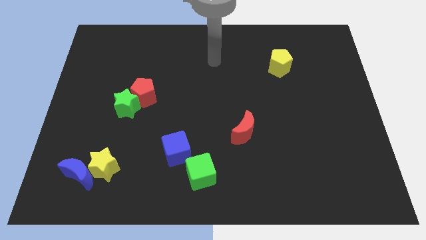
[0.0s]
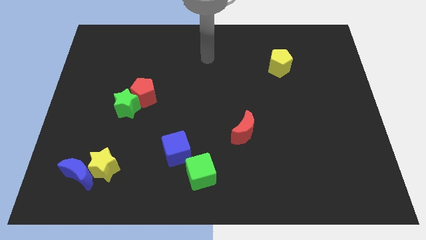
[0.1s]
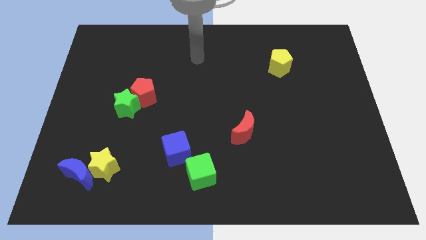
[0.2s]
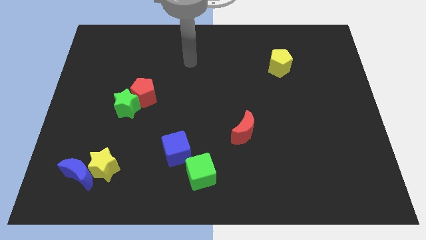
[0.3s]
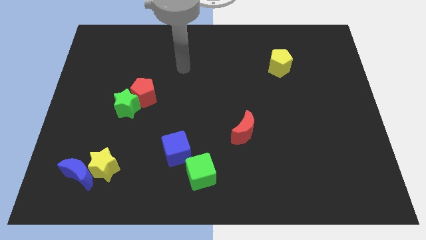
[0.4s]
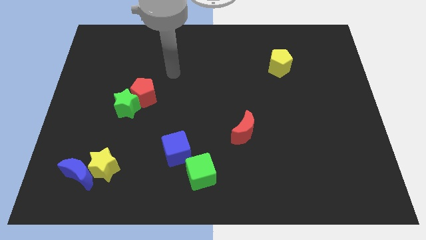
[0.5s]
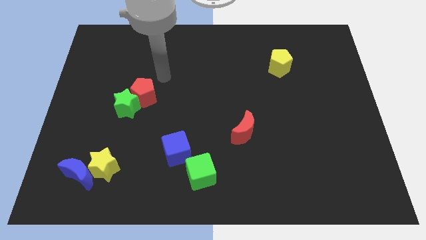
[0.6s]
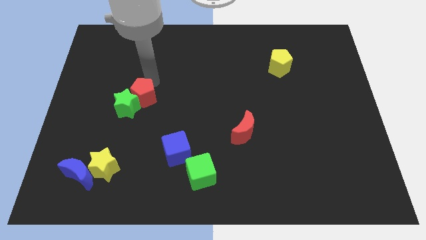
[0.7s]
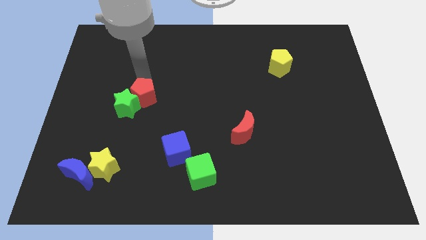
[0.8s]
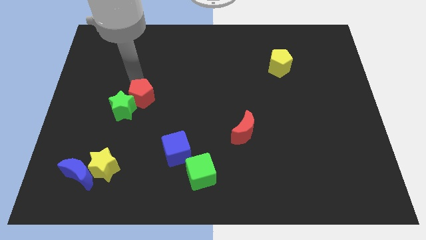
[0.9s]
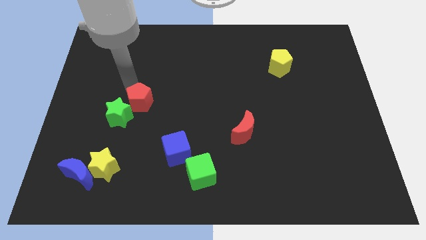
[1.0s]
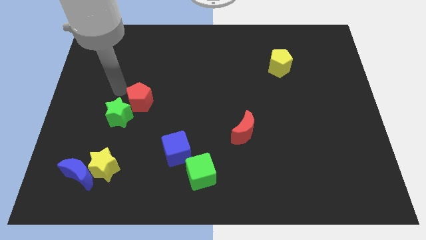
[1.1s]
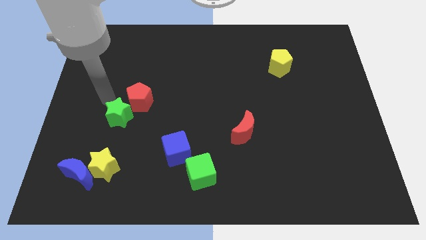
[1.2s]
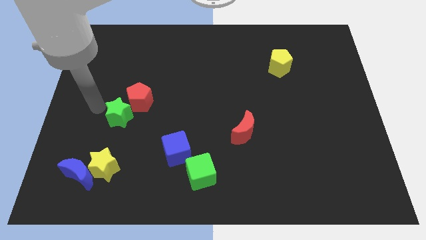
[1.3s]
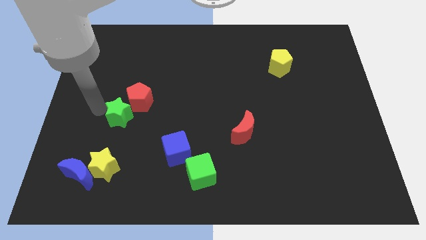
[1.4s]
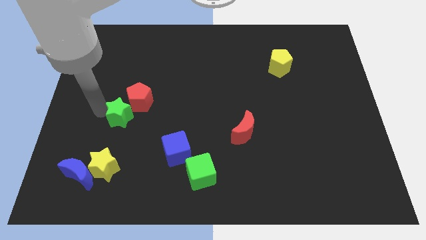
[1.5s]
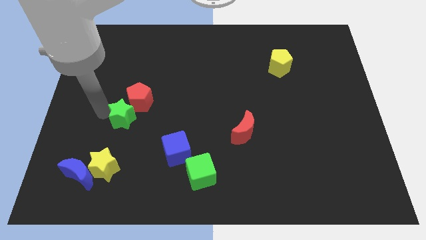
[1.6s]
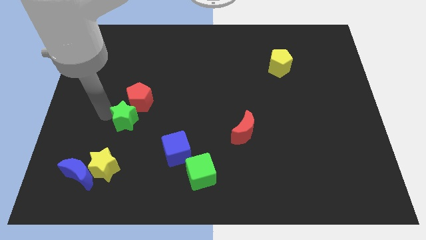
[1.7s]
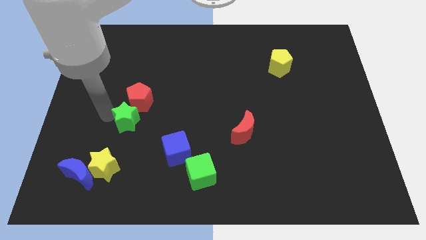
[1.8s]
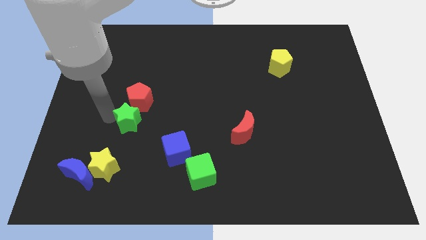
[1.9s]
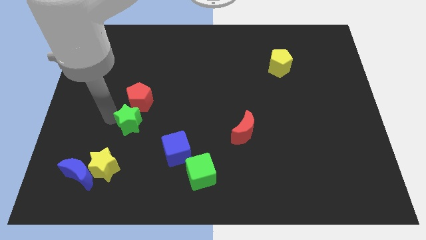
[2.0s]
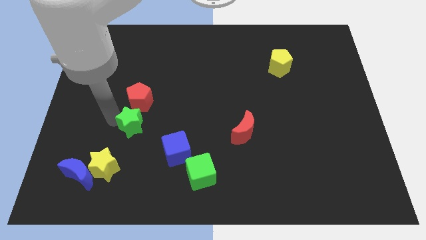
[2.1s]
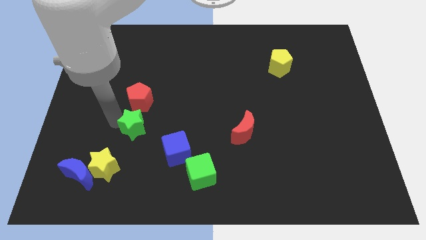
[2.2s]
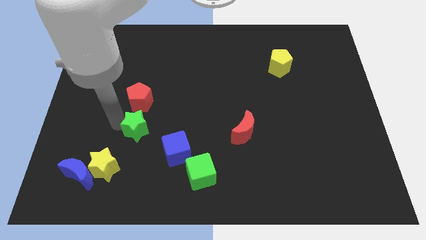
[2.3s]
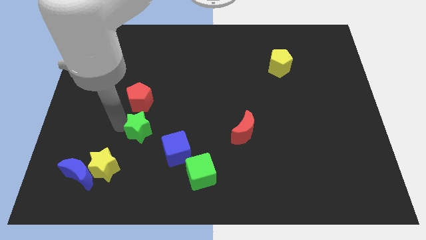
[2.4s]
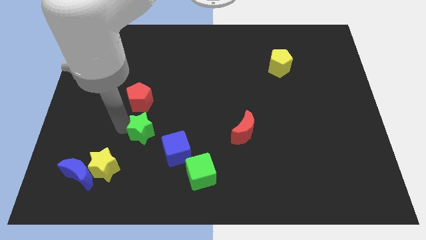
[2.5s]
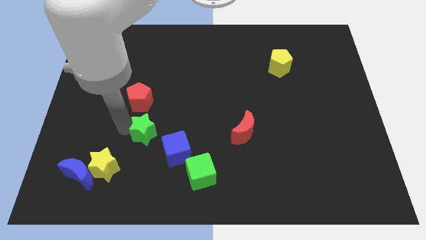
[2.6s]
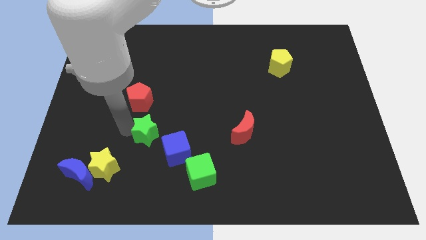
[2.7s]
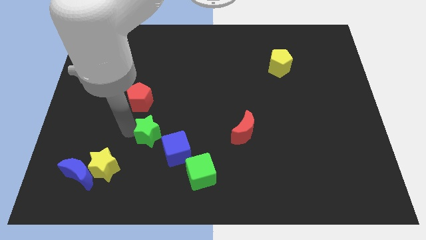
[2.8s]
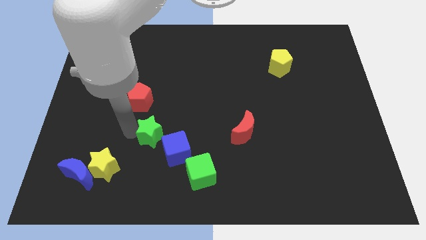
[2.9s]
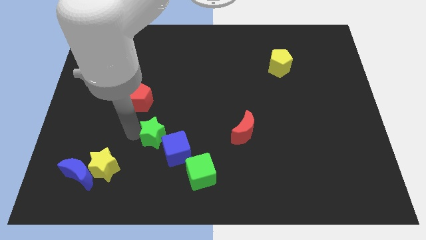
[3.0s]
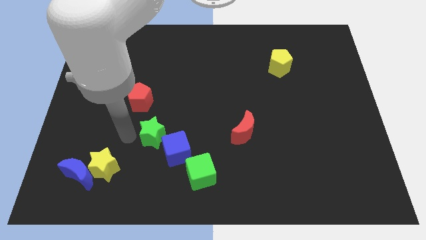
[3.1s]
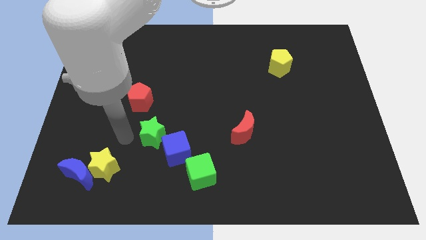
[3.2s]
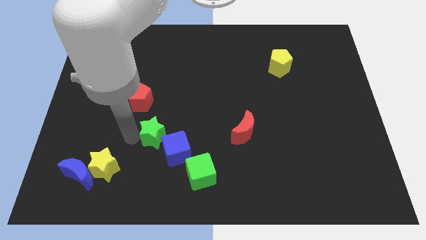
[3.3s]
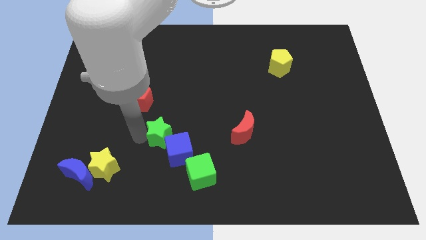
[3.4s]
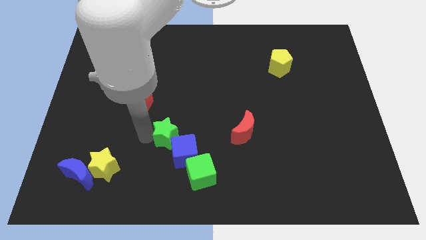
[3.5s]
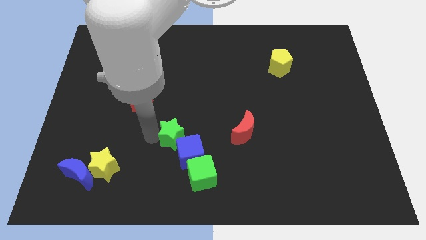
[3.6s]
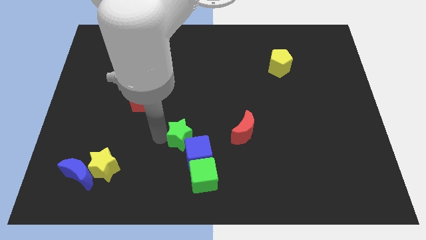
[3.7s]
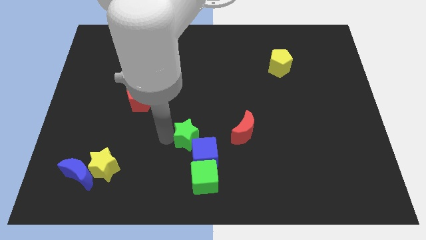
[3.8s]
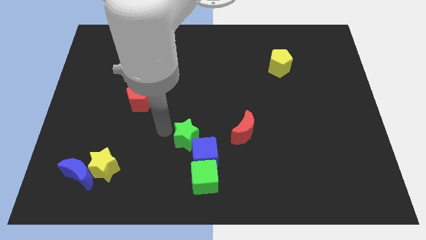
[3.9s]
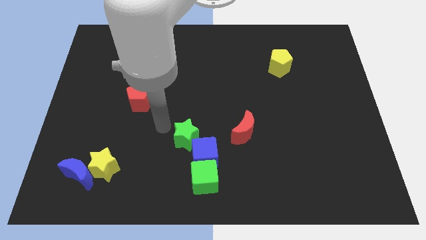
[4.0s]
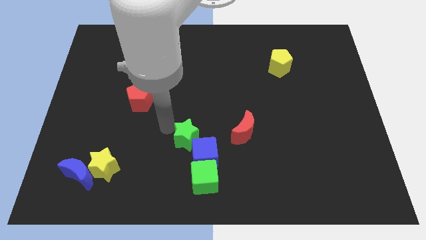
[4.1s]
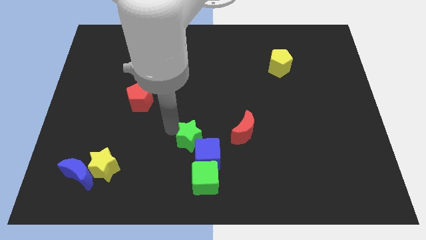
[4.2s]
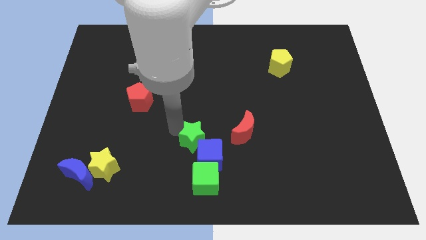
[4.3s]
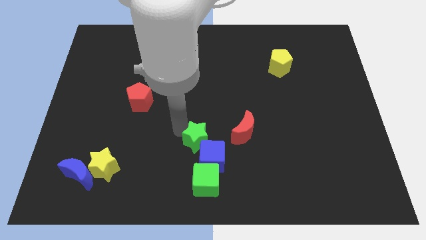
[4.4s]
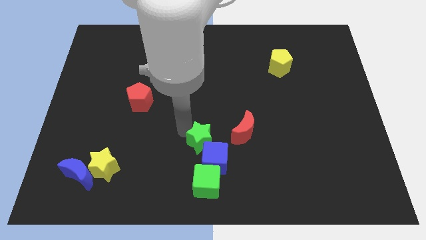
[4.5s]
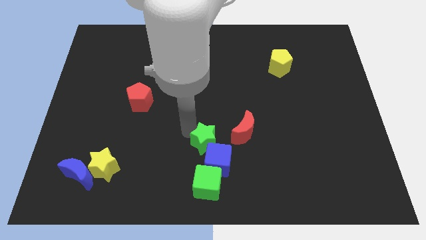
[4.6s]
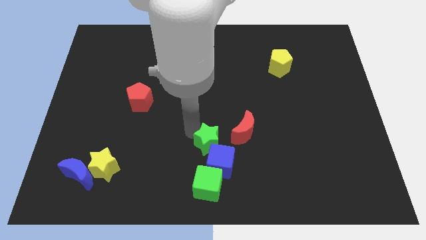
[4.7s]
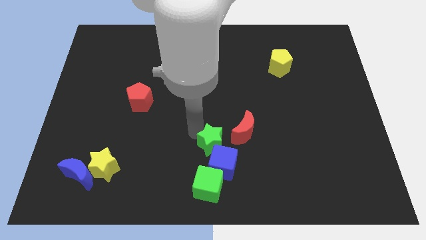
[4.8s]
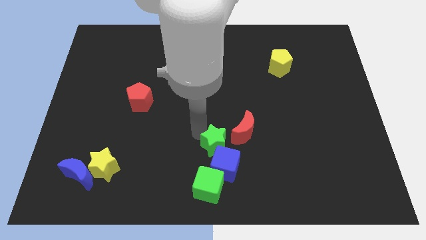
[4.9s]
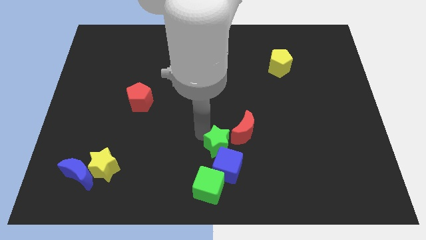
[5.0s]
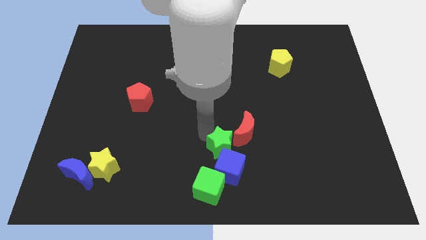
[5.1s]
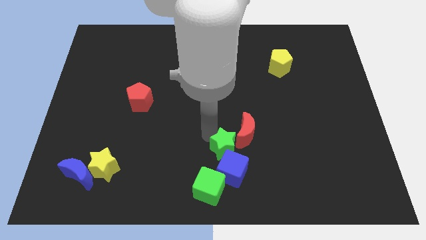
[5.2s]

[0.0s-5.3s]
push the green star diagonally up and to the right of the green cube

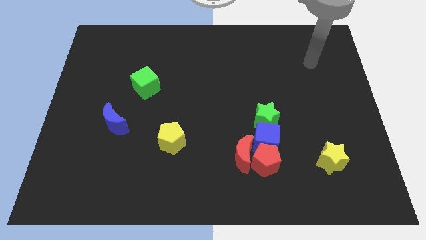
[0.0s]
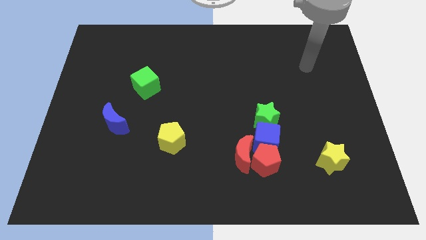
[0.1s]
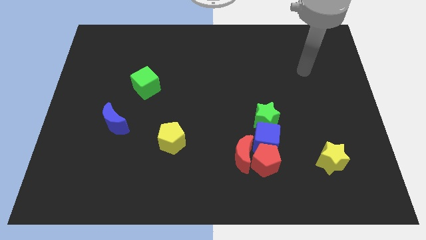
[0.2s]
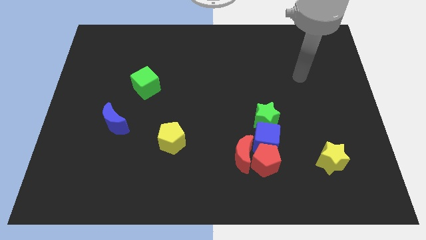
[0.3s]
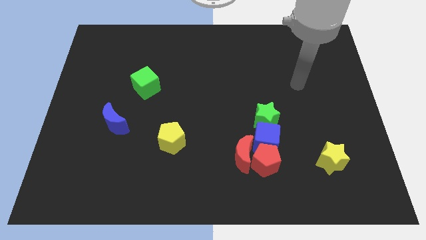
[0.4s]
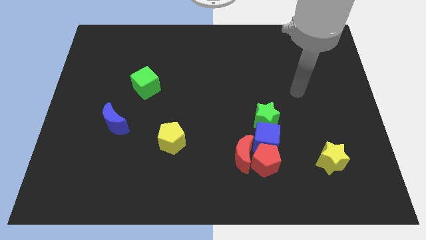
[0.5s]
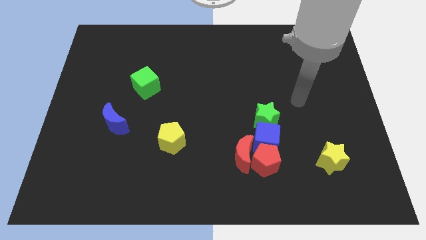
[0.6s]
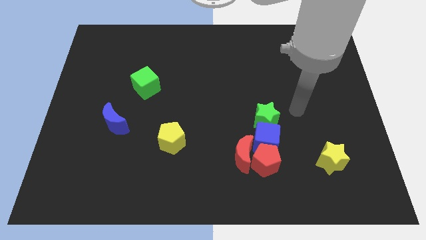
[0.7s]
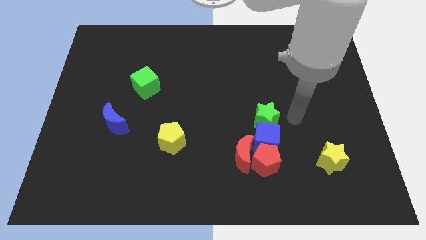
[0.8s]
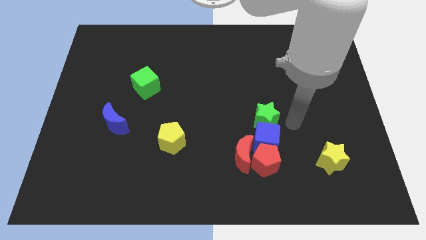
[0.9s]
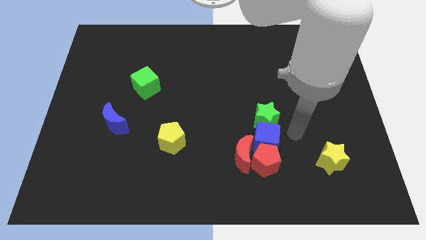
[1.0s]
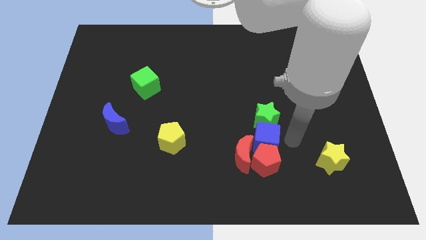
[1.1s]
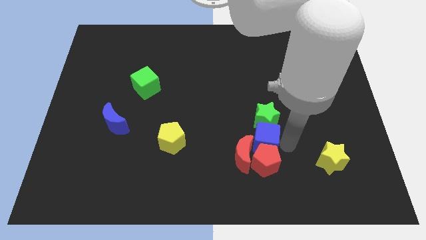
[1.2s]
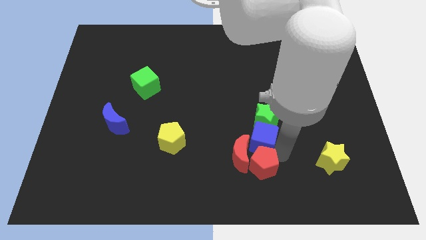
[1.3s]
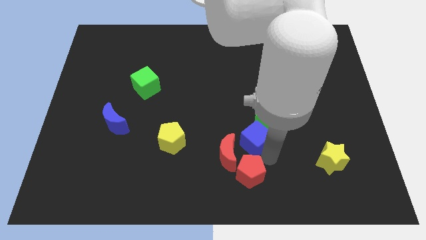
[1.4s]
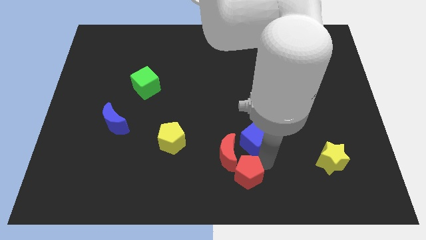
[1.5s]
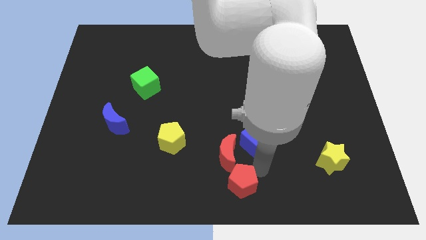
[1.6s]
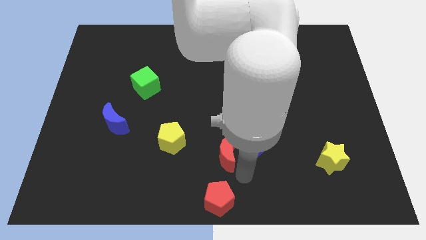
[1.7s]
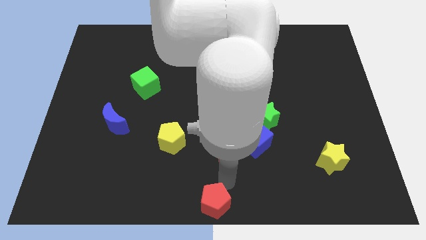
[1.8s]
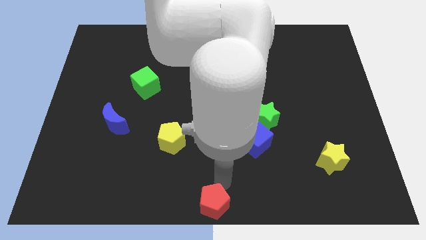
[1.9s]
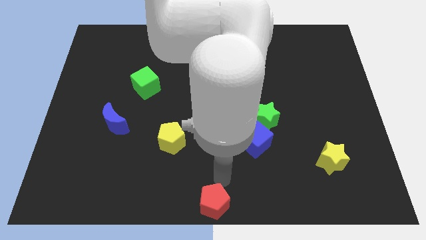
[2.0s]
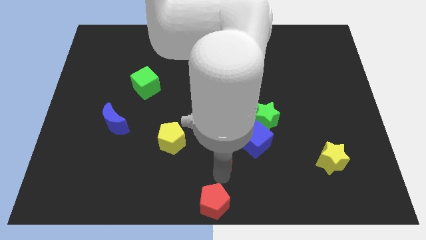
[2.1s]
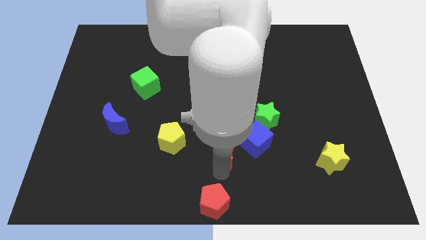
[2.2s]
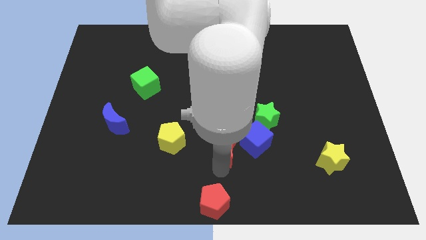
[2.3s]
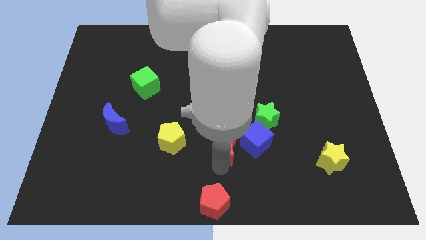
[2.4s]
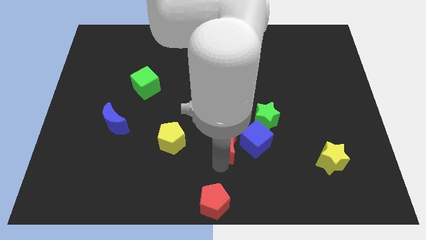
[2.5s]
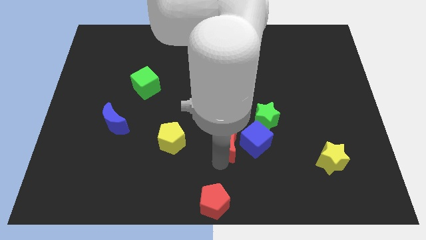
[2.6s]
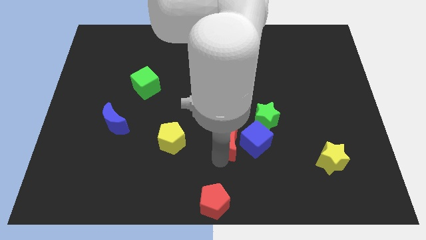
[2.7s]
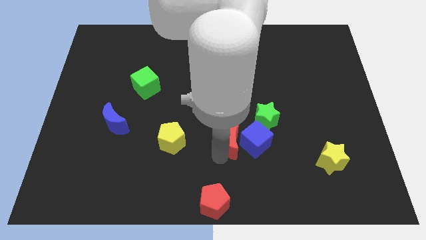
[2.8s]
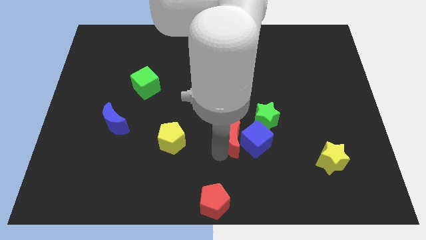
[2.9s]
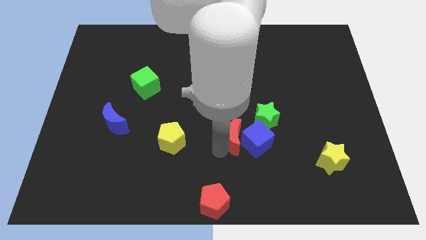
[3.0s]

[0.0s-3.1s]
move the red moon just left of the green star

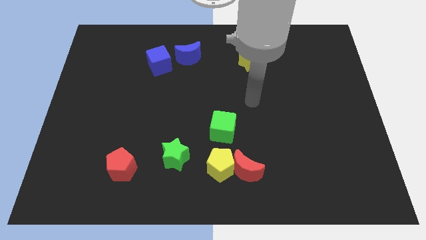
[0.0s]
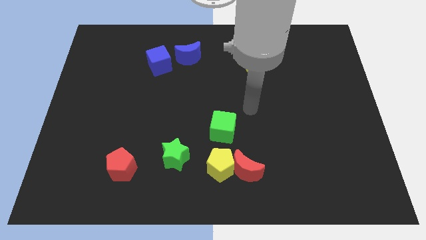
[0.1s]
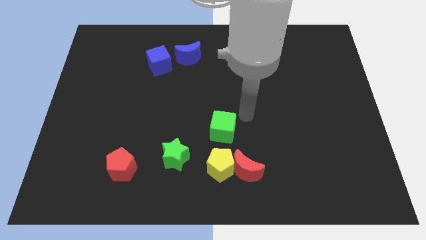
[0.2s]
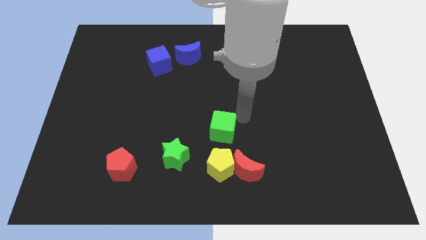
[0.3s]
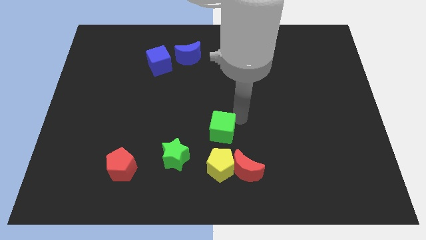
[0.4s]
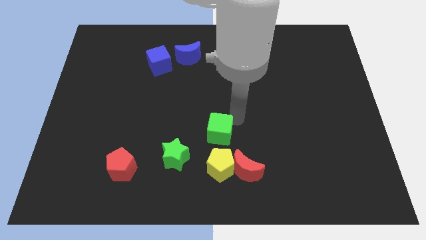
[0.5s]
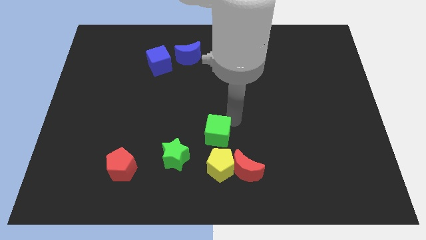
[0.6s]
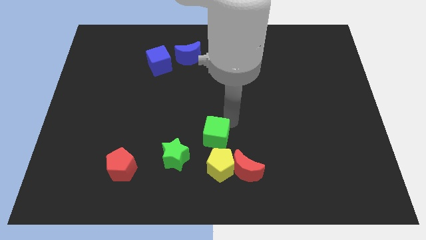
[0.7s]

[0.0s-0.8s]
put the green cube diagonally up and to the left of the yellow pentagon
